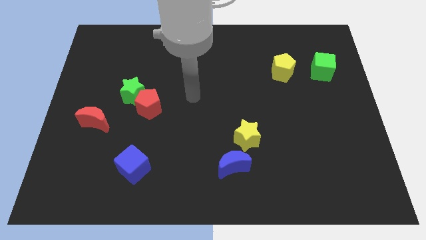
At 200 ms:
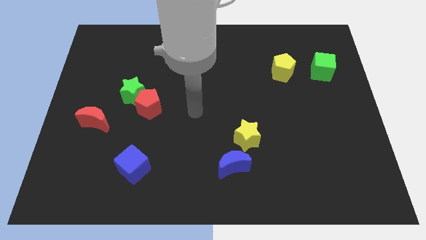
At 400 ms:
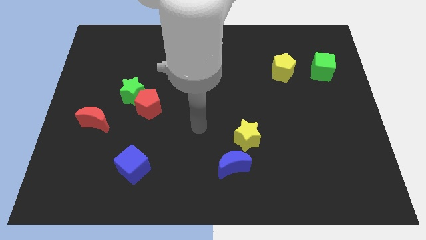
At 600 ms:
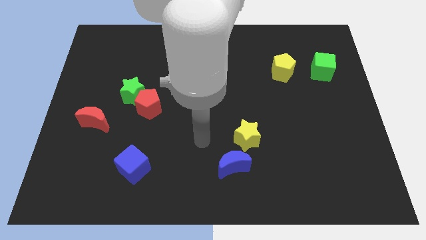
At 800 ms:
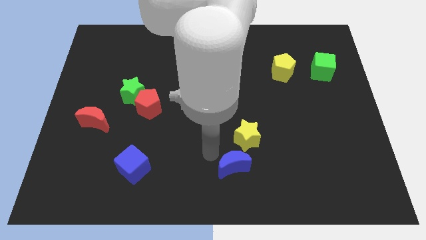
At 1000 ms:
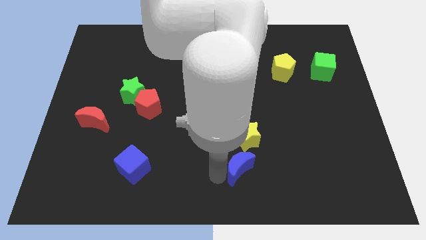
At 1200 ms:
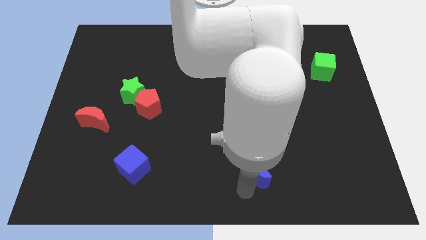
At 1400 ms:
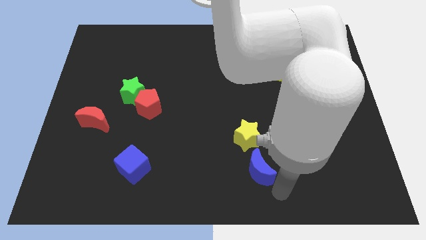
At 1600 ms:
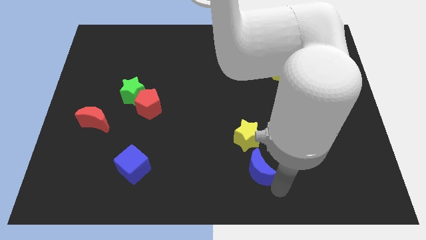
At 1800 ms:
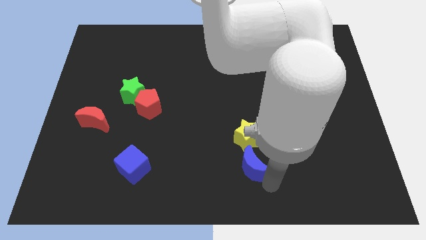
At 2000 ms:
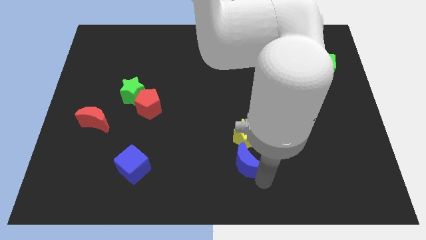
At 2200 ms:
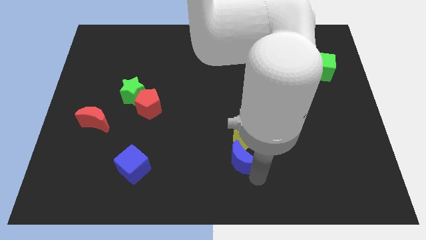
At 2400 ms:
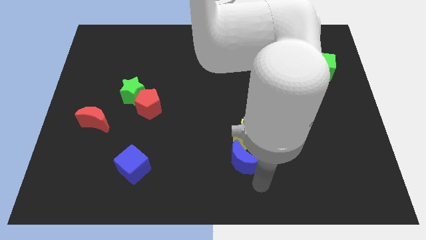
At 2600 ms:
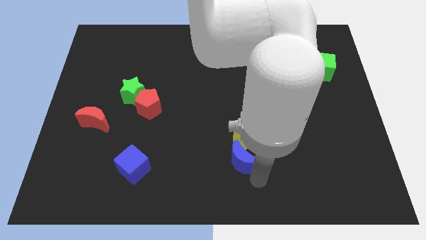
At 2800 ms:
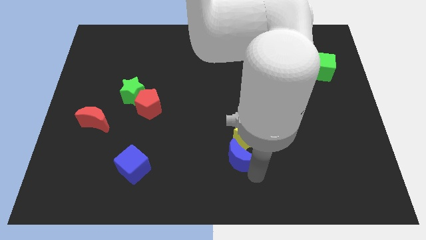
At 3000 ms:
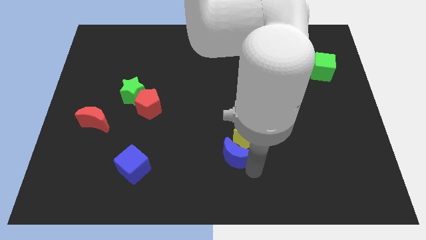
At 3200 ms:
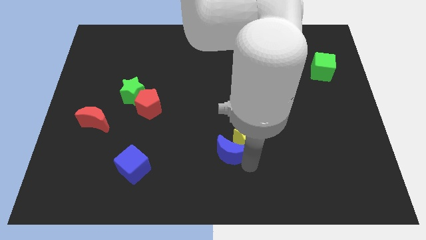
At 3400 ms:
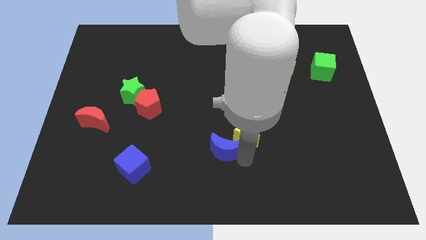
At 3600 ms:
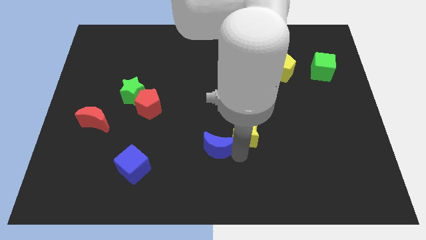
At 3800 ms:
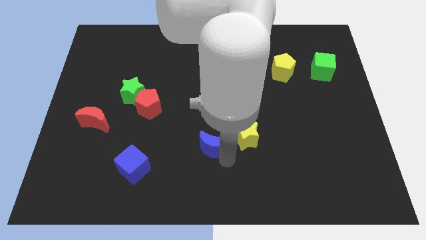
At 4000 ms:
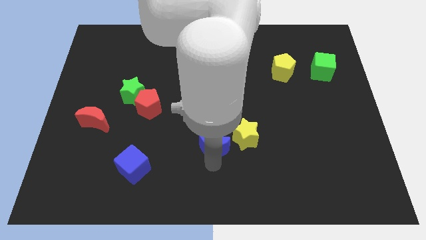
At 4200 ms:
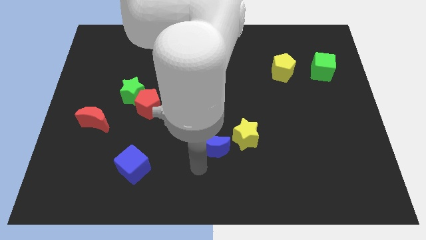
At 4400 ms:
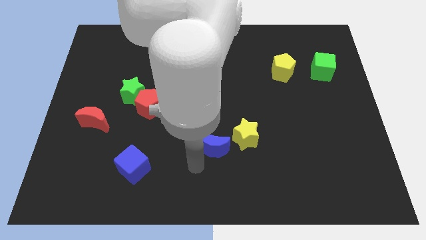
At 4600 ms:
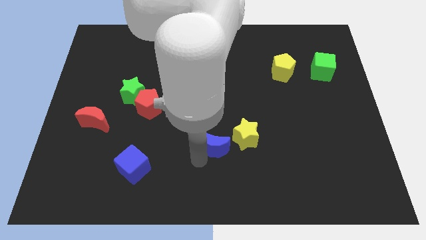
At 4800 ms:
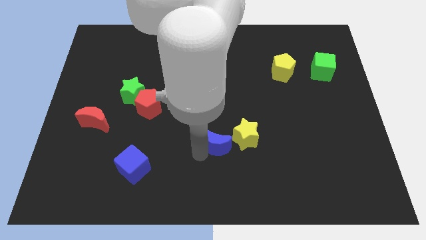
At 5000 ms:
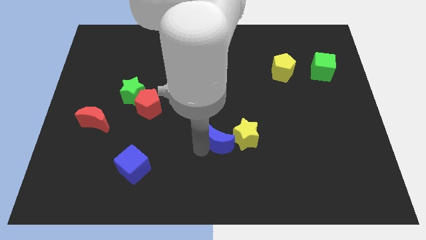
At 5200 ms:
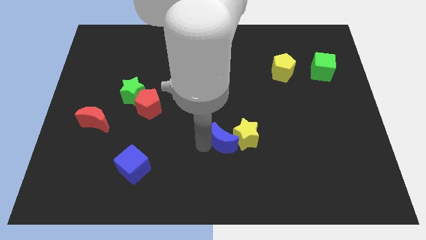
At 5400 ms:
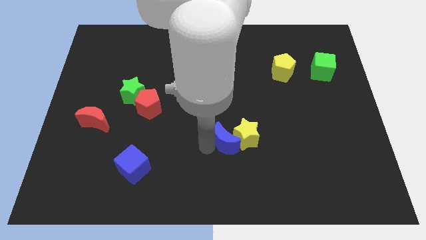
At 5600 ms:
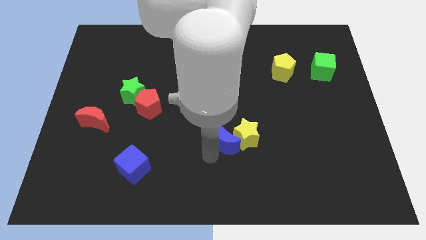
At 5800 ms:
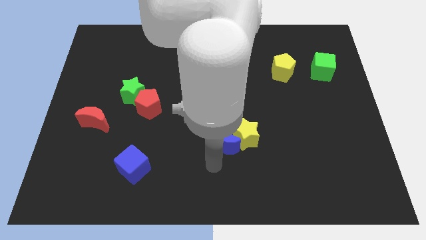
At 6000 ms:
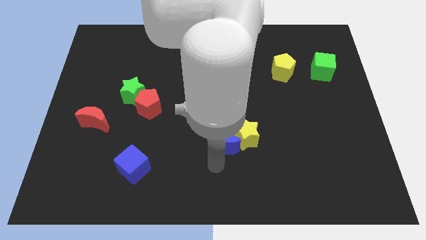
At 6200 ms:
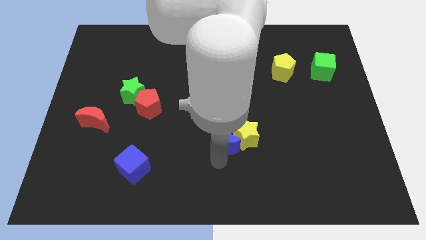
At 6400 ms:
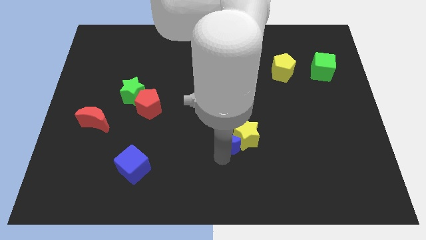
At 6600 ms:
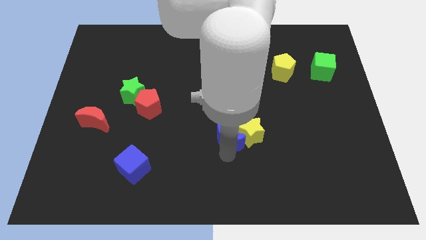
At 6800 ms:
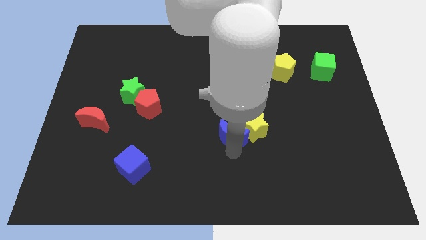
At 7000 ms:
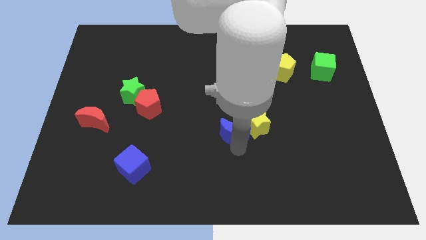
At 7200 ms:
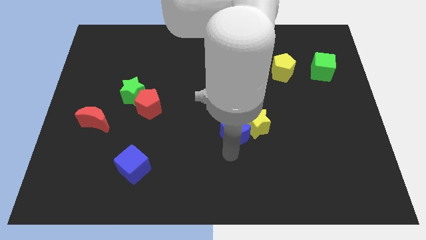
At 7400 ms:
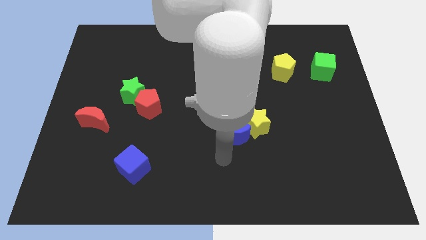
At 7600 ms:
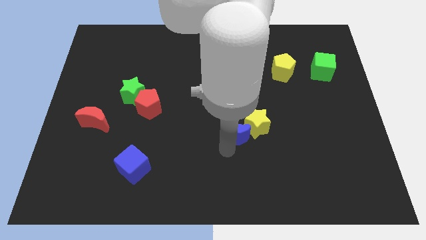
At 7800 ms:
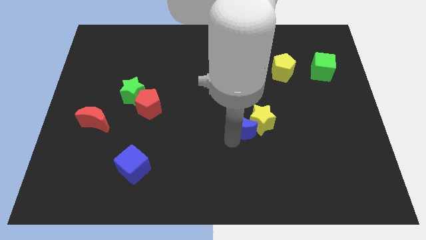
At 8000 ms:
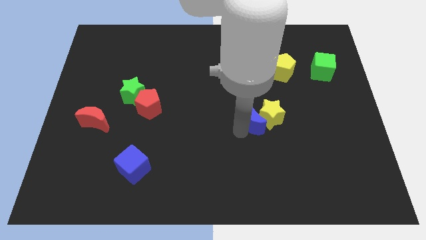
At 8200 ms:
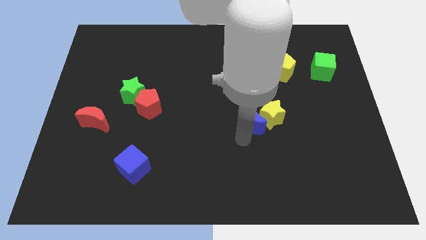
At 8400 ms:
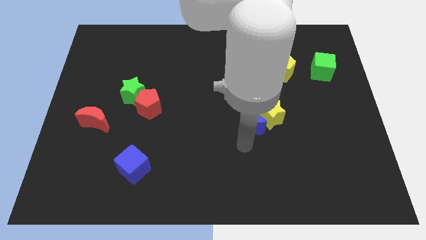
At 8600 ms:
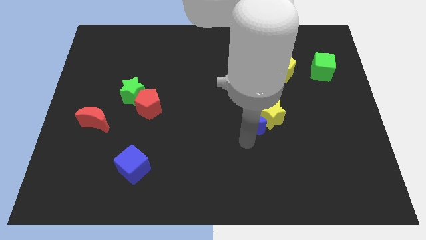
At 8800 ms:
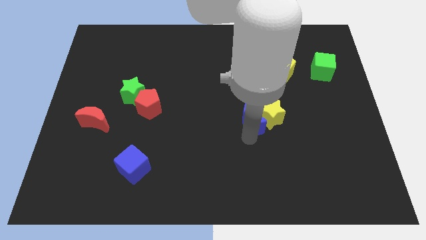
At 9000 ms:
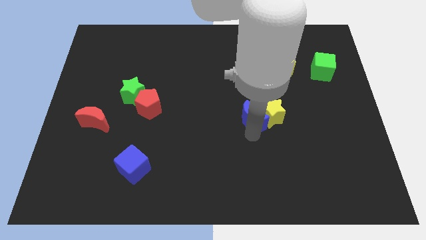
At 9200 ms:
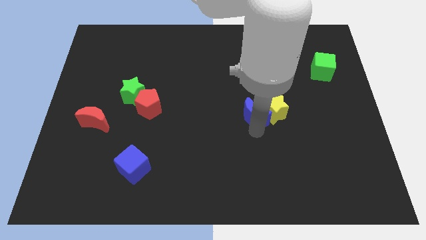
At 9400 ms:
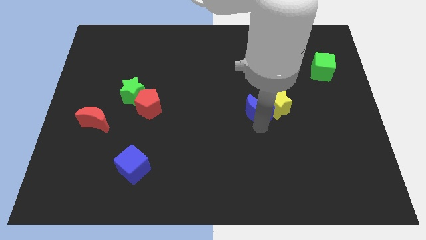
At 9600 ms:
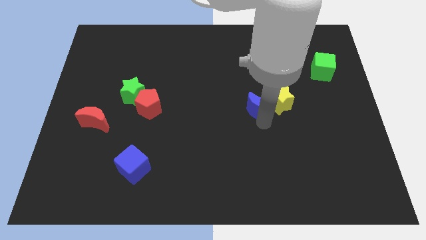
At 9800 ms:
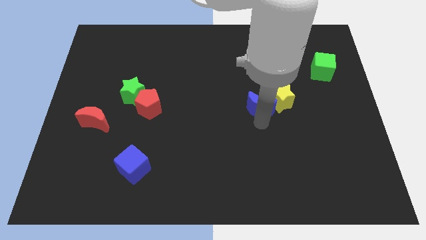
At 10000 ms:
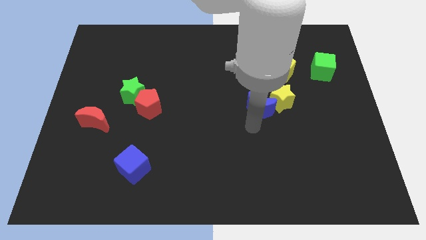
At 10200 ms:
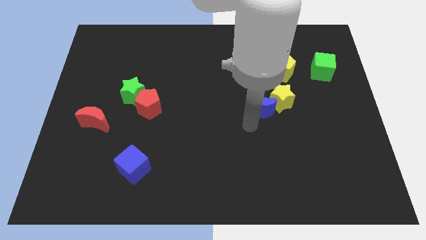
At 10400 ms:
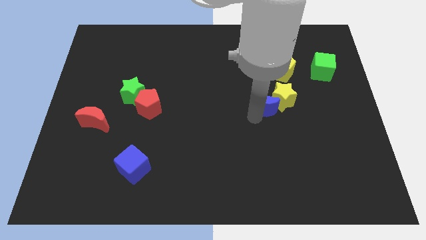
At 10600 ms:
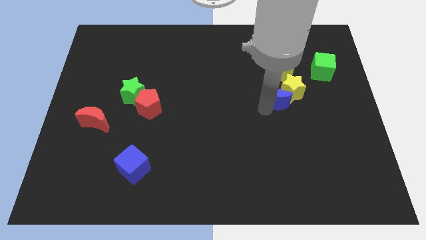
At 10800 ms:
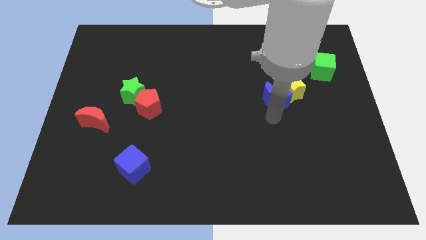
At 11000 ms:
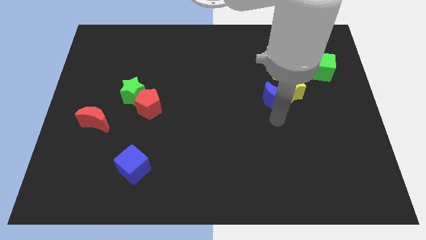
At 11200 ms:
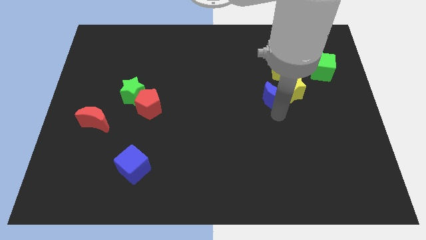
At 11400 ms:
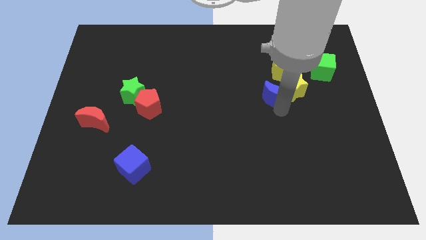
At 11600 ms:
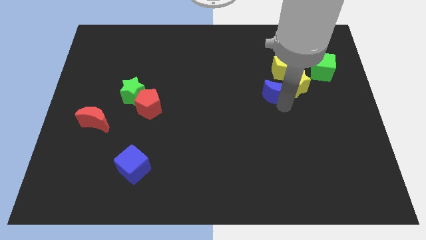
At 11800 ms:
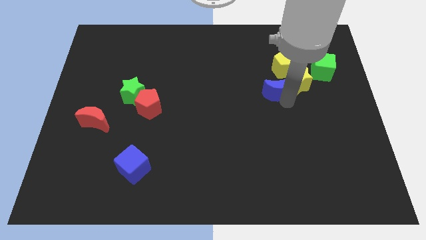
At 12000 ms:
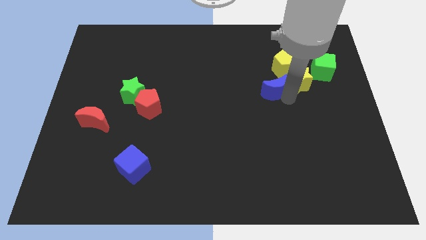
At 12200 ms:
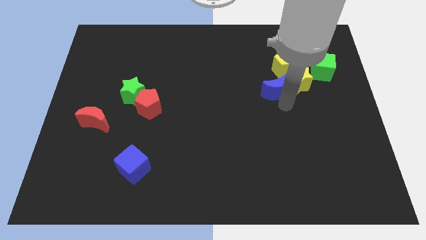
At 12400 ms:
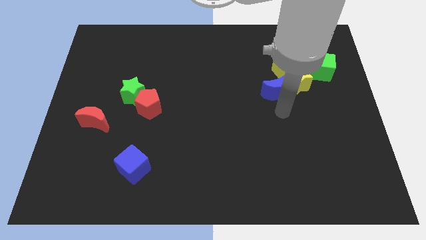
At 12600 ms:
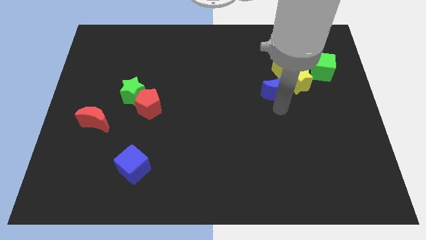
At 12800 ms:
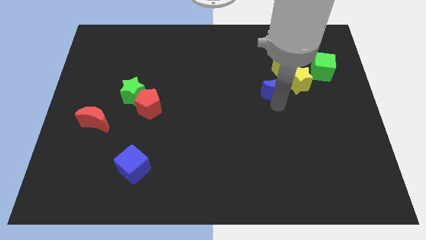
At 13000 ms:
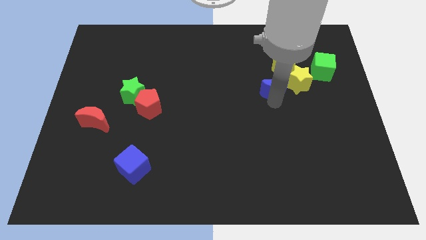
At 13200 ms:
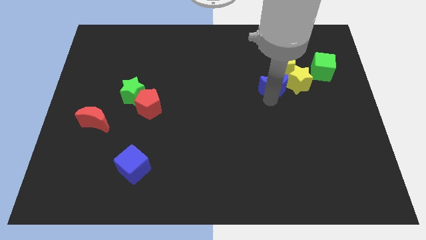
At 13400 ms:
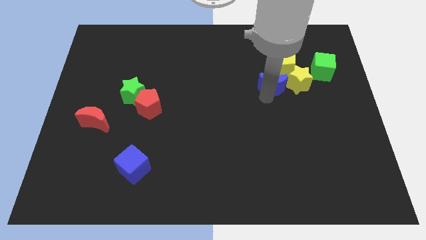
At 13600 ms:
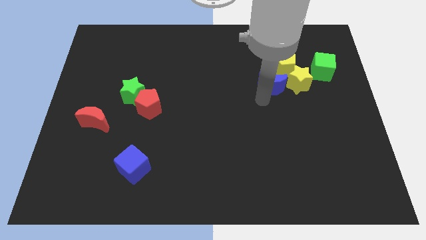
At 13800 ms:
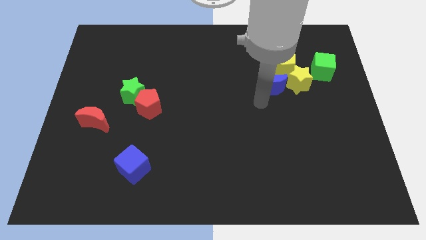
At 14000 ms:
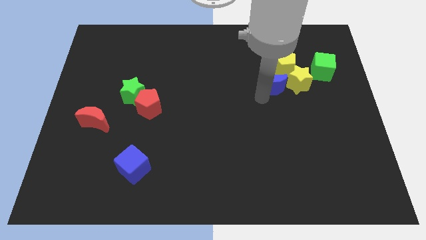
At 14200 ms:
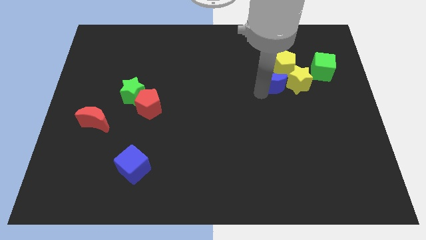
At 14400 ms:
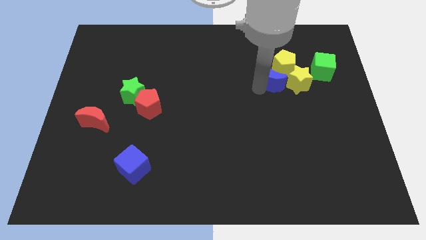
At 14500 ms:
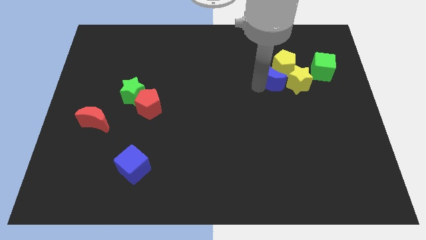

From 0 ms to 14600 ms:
move the blue moon towards the yellow pentagon
